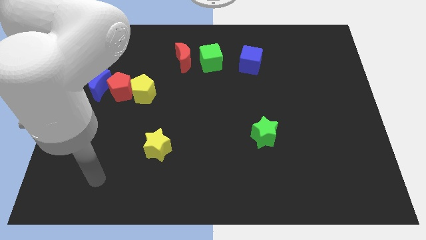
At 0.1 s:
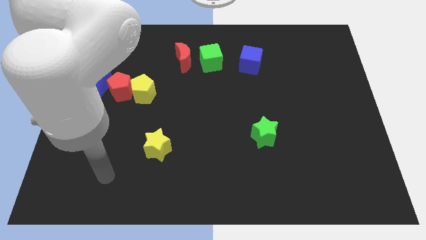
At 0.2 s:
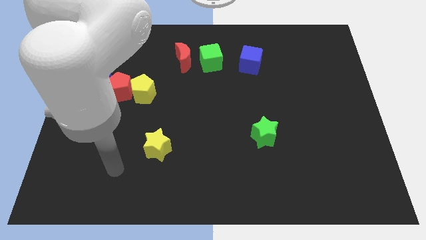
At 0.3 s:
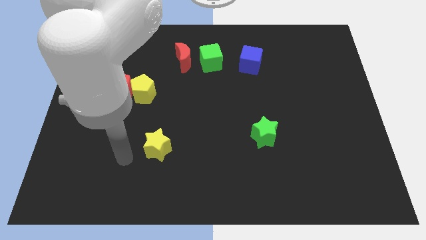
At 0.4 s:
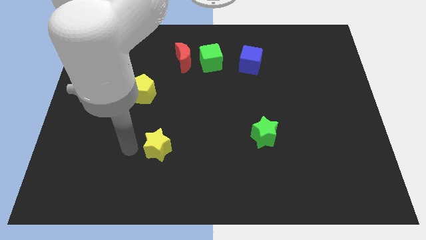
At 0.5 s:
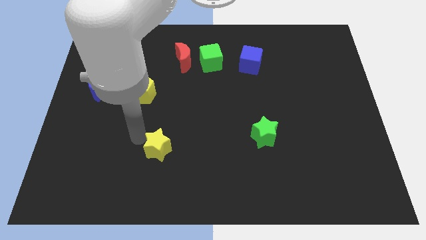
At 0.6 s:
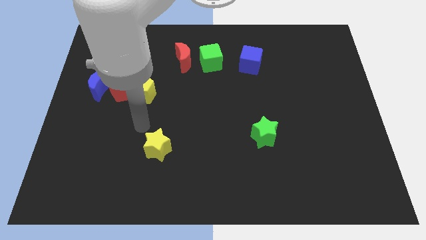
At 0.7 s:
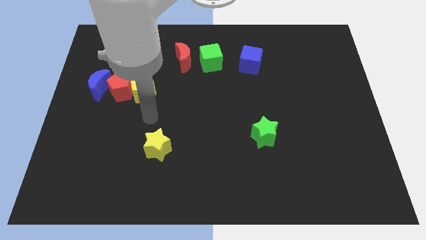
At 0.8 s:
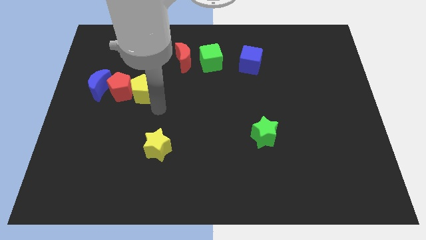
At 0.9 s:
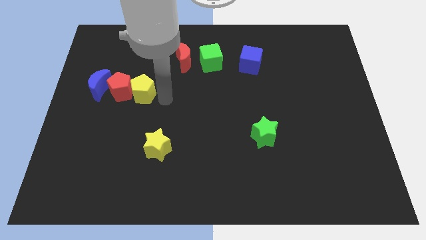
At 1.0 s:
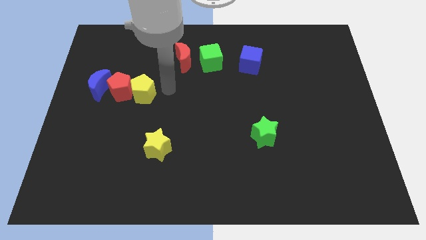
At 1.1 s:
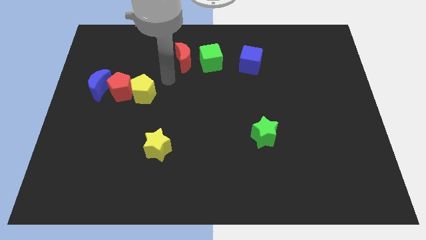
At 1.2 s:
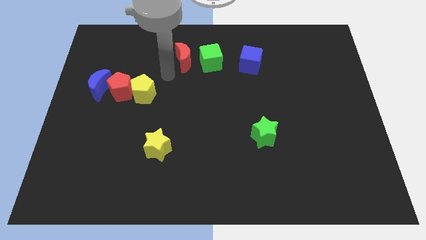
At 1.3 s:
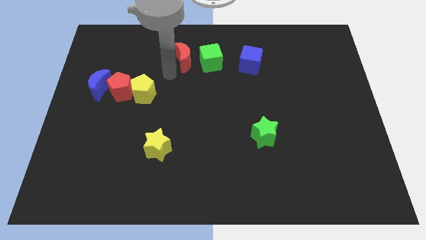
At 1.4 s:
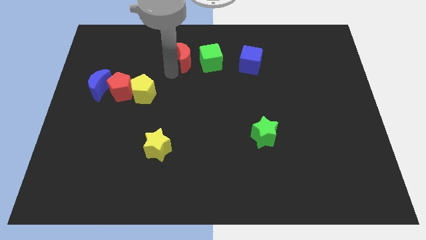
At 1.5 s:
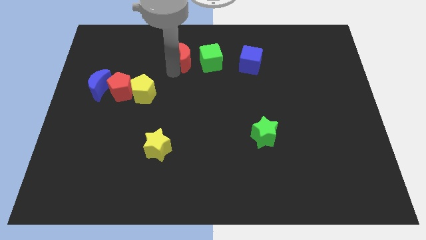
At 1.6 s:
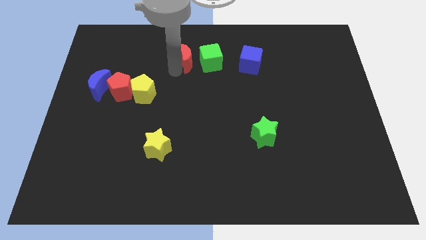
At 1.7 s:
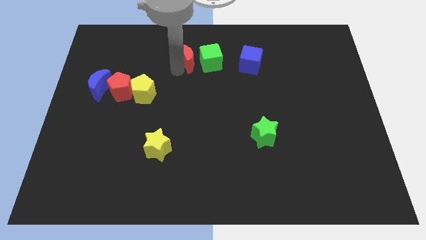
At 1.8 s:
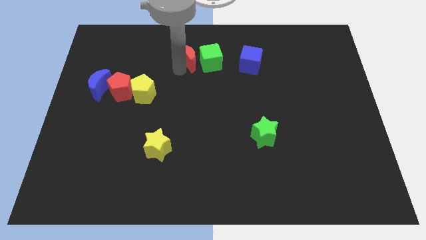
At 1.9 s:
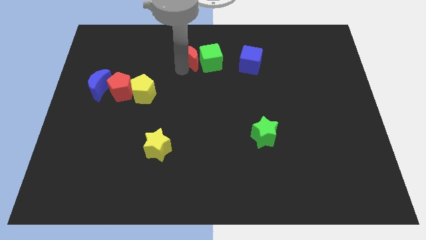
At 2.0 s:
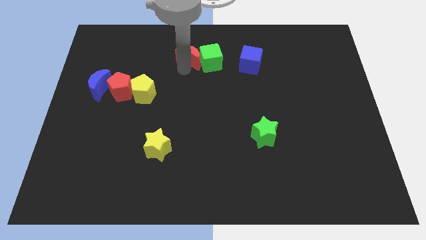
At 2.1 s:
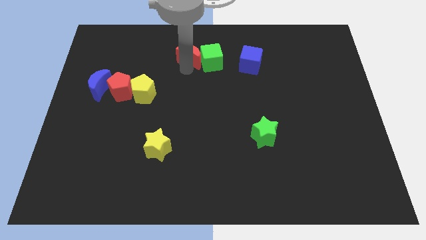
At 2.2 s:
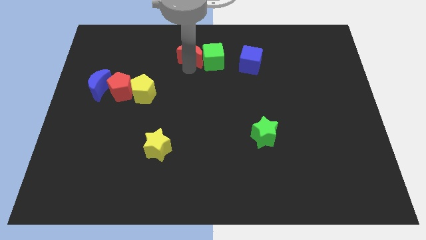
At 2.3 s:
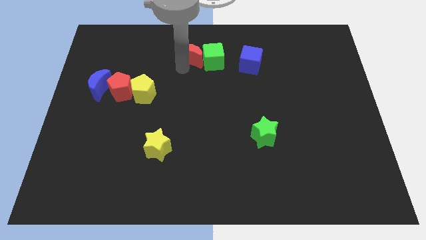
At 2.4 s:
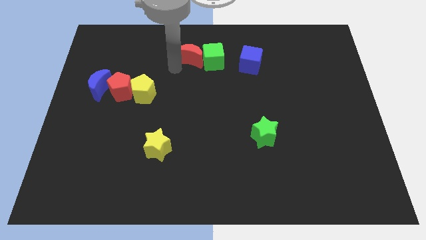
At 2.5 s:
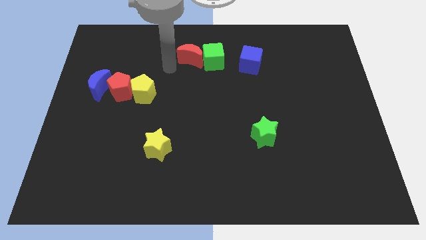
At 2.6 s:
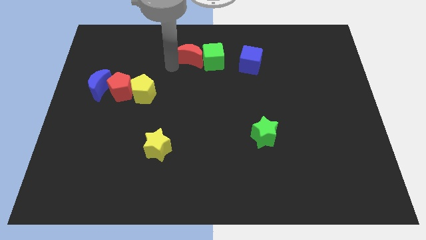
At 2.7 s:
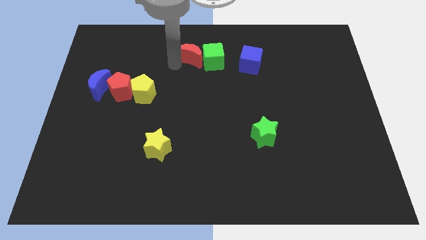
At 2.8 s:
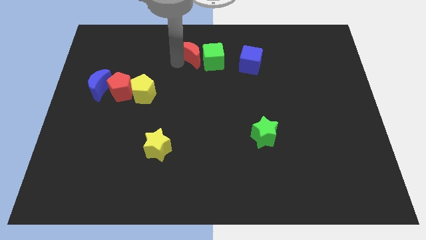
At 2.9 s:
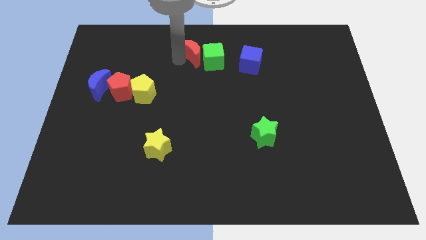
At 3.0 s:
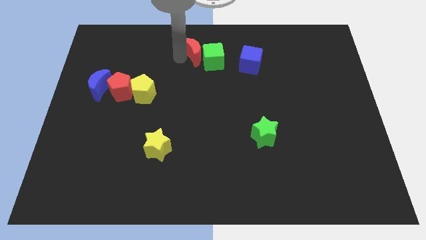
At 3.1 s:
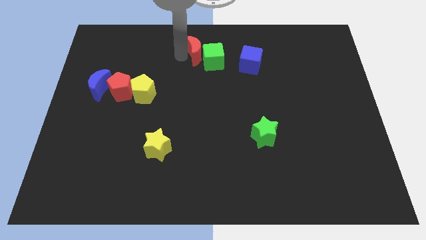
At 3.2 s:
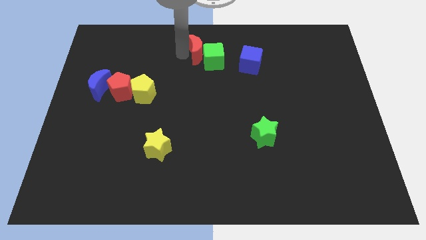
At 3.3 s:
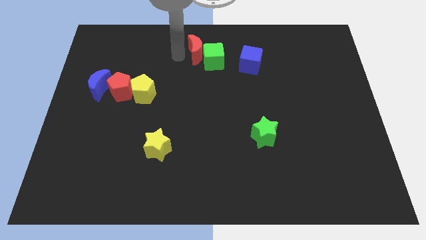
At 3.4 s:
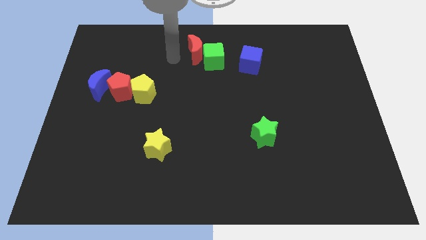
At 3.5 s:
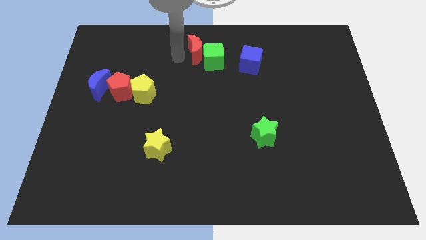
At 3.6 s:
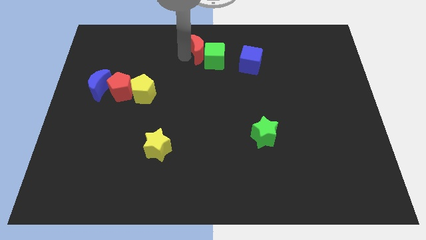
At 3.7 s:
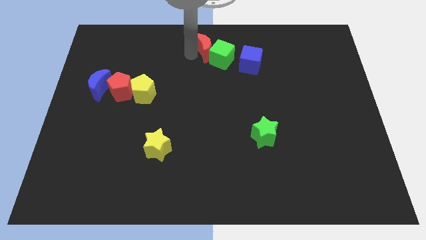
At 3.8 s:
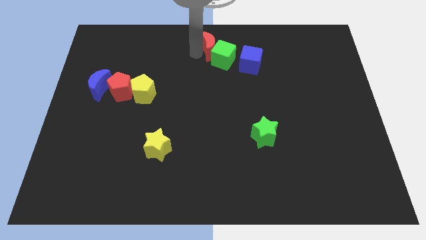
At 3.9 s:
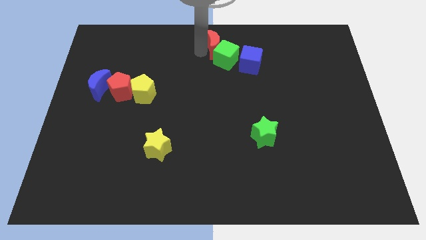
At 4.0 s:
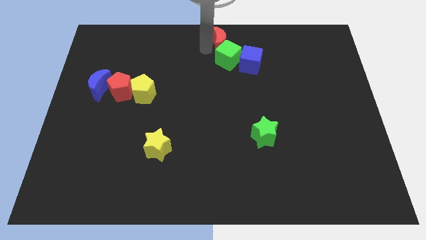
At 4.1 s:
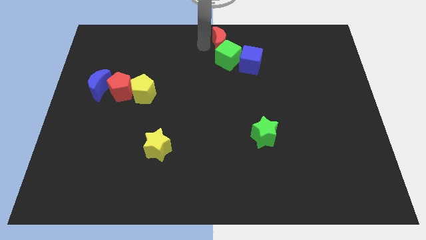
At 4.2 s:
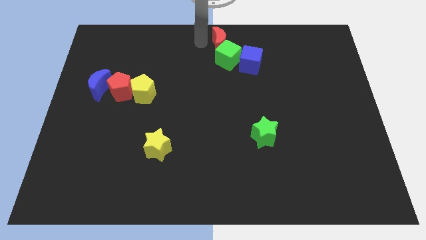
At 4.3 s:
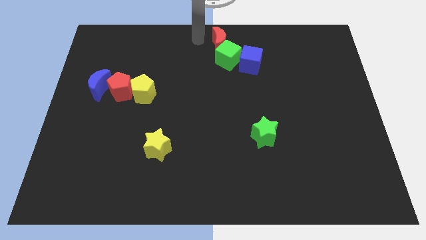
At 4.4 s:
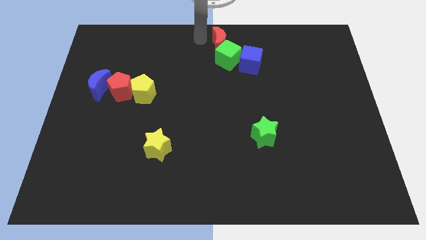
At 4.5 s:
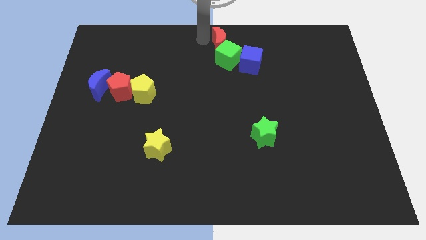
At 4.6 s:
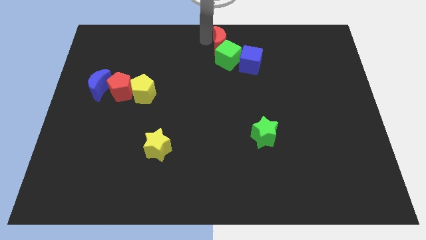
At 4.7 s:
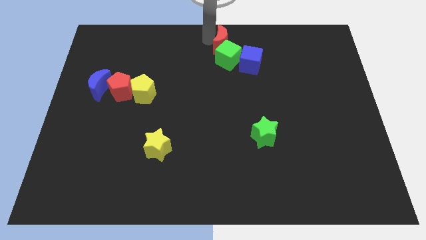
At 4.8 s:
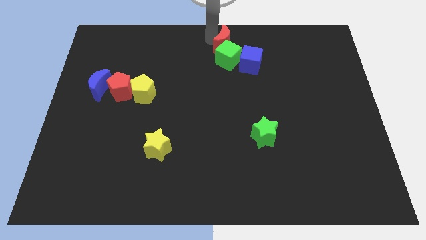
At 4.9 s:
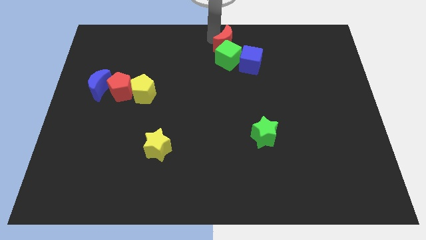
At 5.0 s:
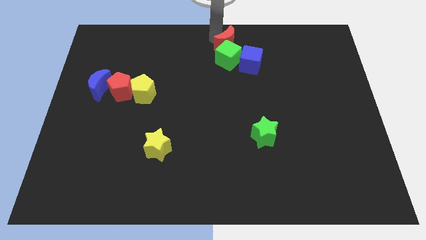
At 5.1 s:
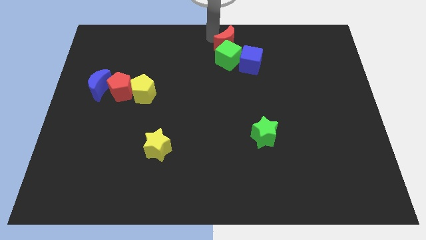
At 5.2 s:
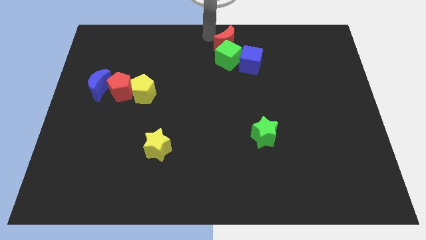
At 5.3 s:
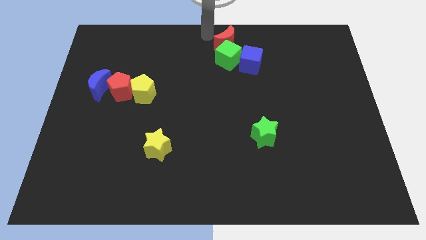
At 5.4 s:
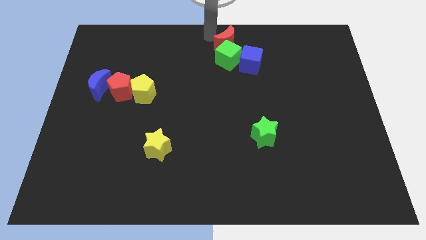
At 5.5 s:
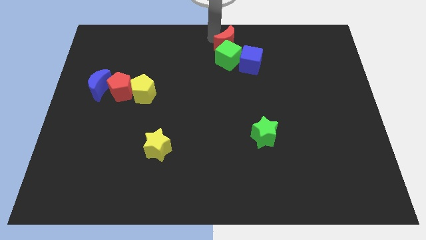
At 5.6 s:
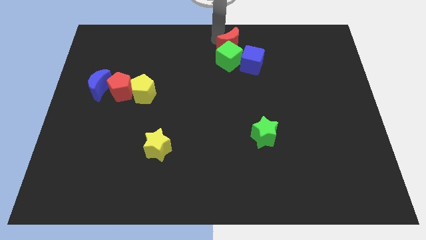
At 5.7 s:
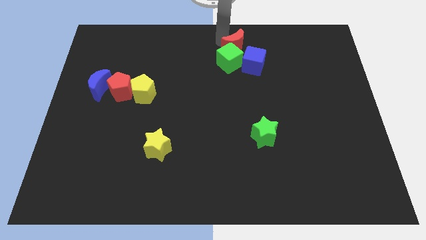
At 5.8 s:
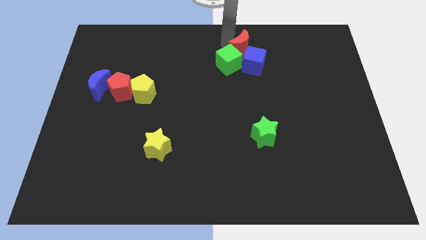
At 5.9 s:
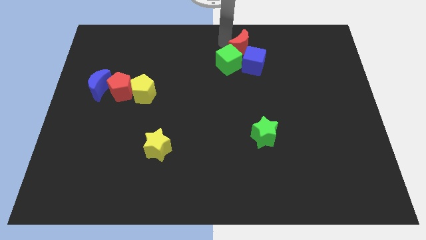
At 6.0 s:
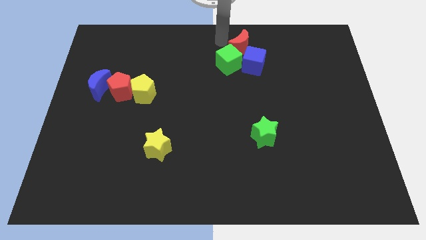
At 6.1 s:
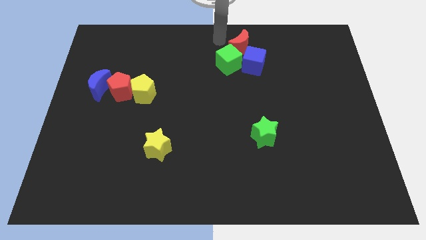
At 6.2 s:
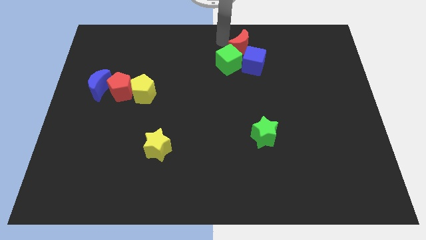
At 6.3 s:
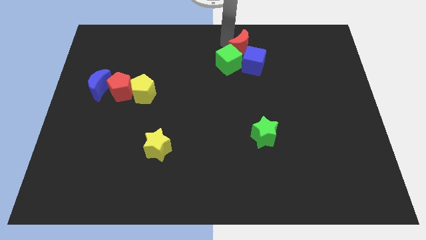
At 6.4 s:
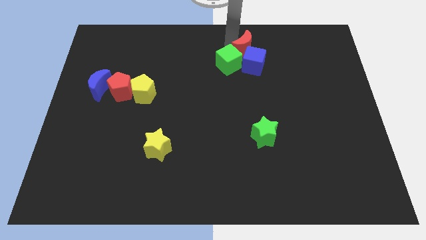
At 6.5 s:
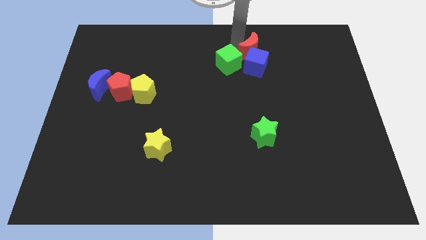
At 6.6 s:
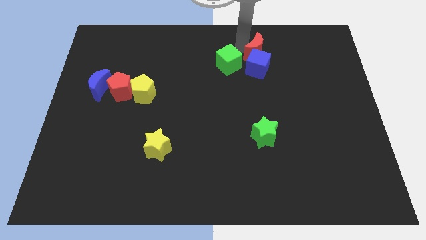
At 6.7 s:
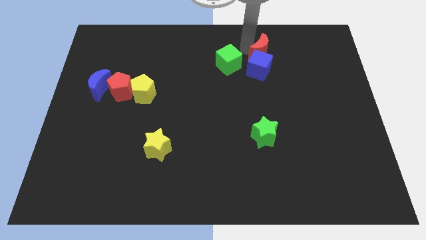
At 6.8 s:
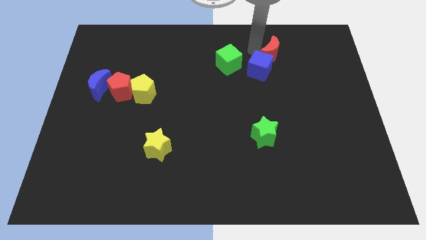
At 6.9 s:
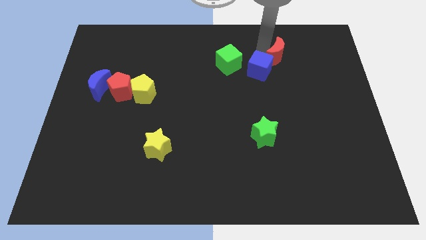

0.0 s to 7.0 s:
slide the red moon just right of the blue cube

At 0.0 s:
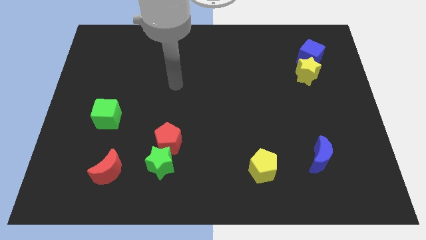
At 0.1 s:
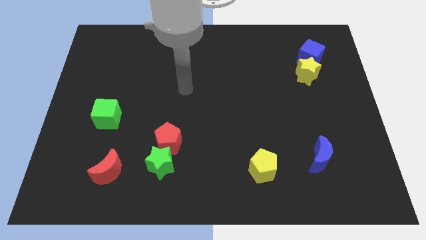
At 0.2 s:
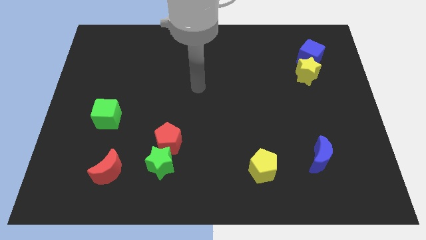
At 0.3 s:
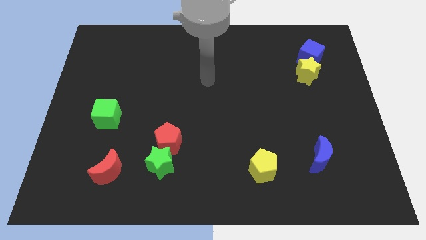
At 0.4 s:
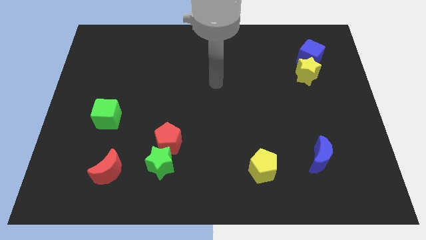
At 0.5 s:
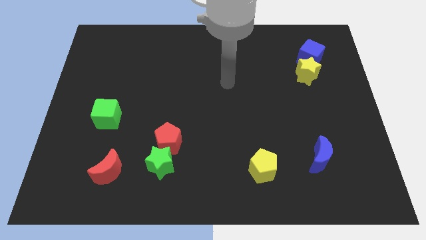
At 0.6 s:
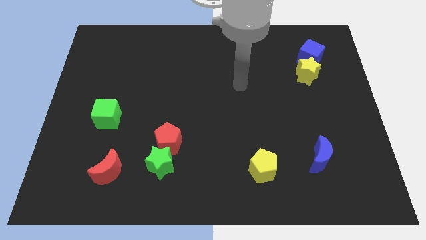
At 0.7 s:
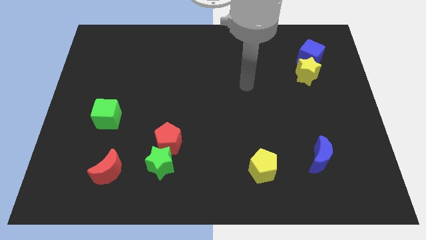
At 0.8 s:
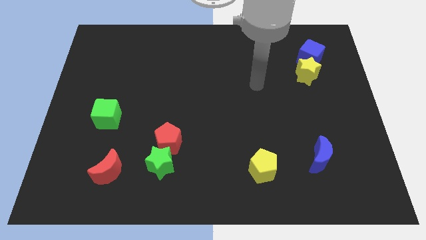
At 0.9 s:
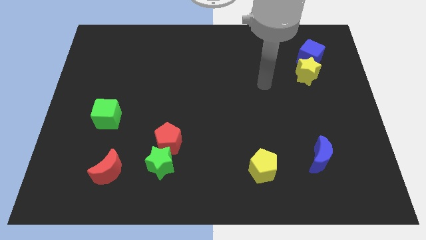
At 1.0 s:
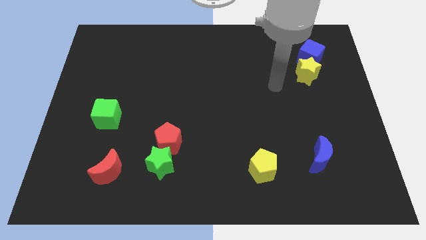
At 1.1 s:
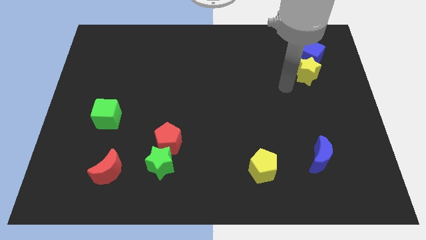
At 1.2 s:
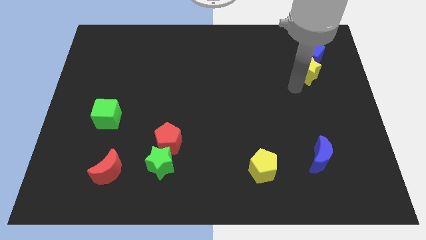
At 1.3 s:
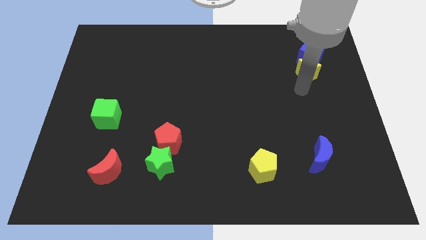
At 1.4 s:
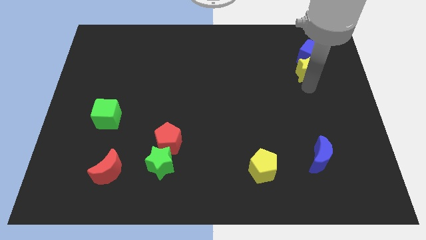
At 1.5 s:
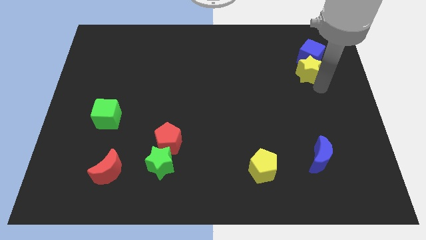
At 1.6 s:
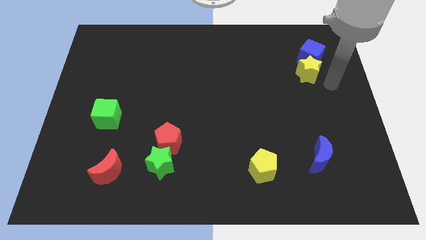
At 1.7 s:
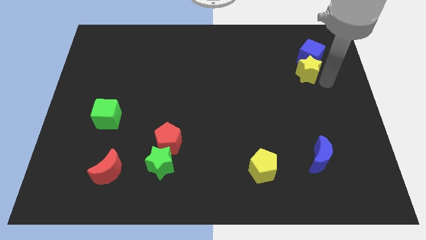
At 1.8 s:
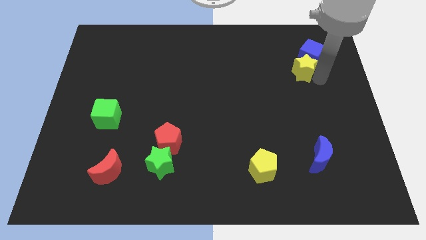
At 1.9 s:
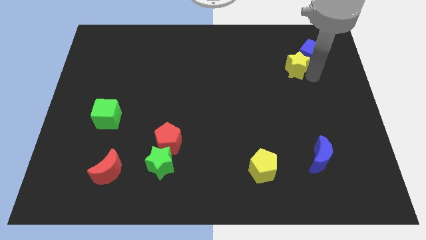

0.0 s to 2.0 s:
put the yellow star to the left of the blue cube
